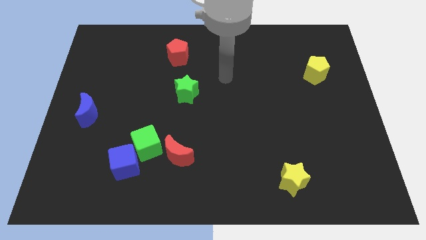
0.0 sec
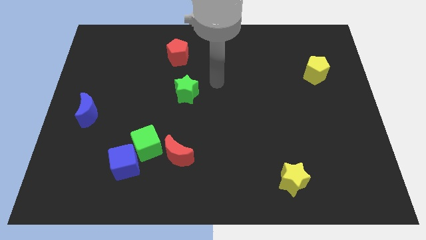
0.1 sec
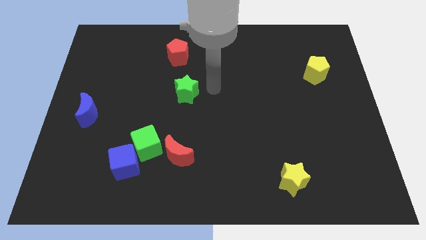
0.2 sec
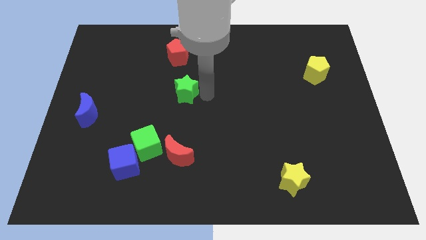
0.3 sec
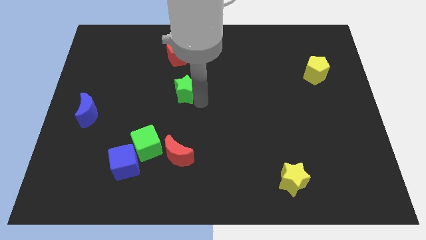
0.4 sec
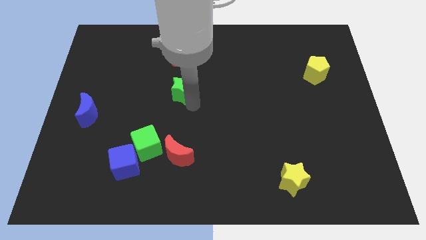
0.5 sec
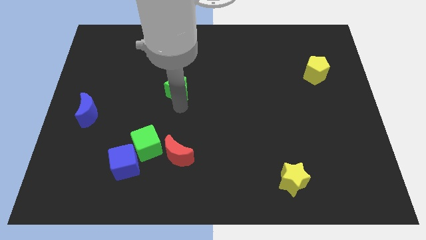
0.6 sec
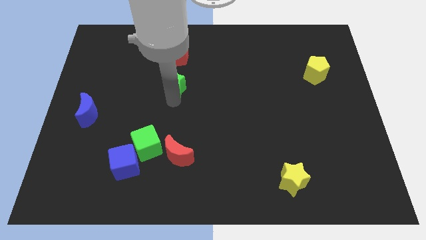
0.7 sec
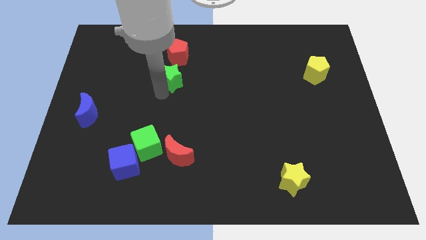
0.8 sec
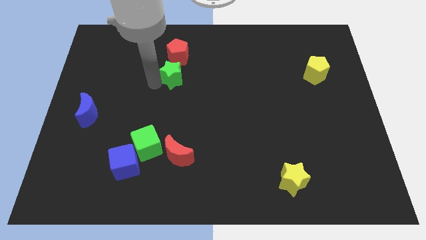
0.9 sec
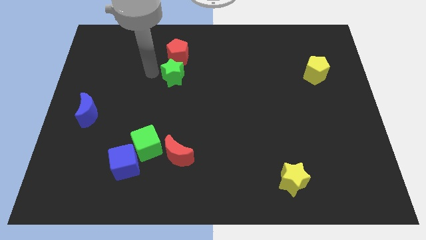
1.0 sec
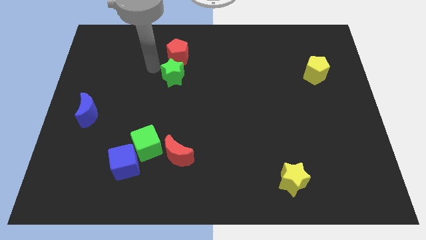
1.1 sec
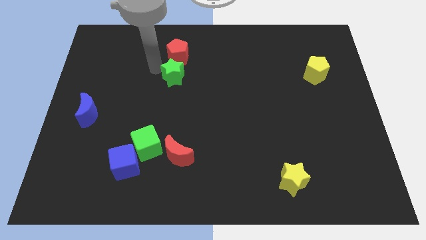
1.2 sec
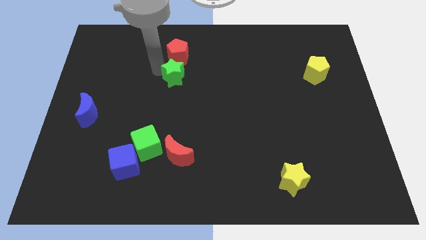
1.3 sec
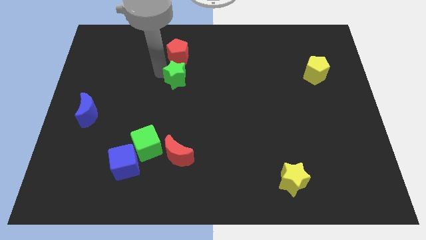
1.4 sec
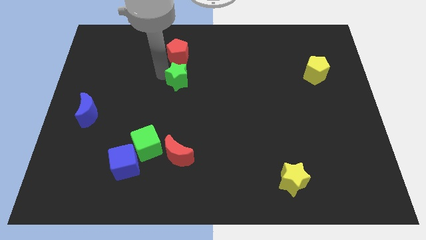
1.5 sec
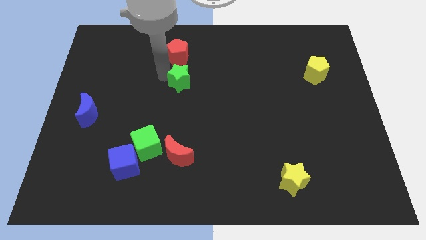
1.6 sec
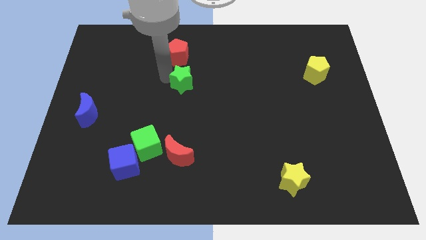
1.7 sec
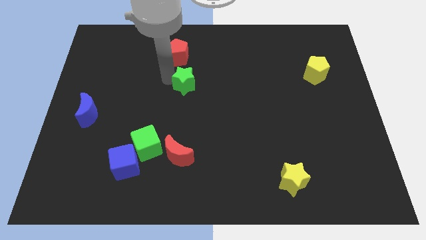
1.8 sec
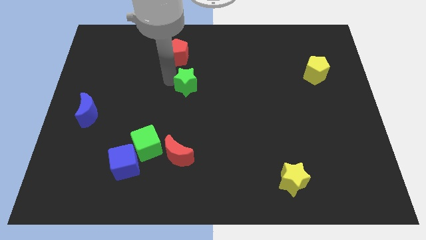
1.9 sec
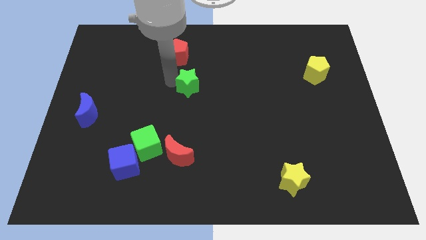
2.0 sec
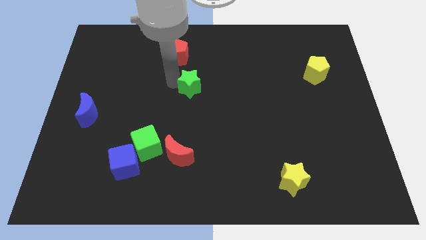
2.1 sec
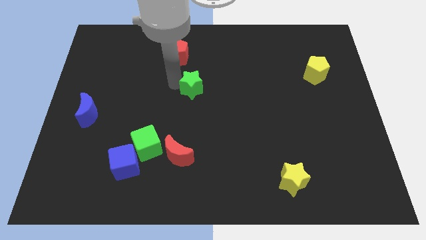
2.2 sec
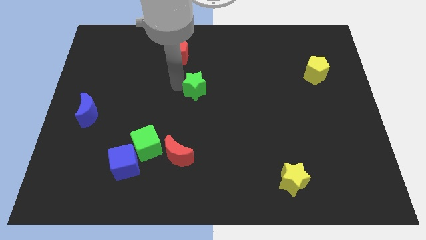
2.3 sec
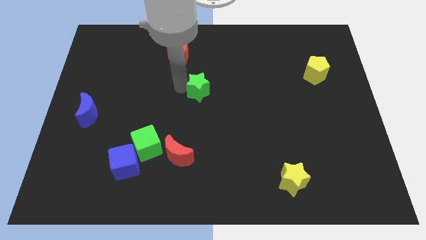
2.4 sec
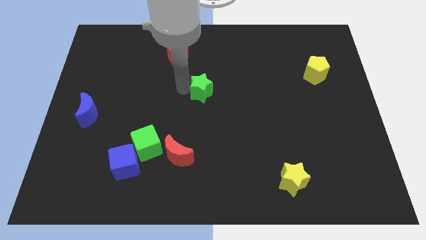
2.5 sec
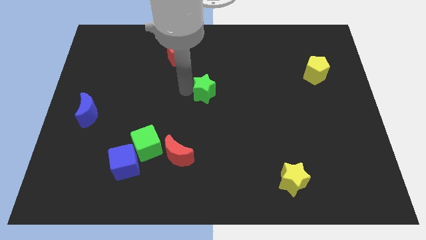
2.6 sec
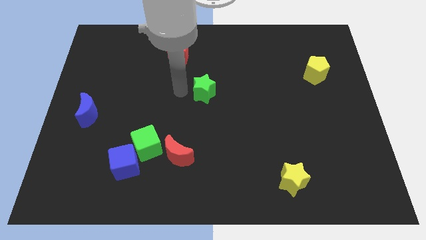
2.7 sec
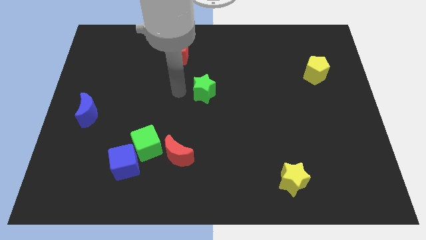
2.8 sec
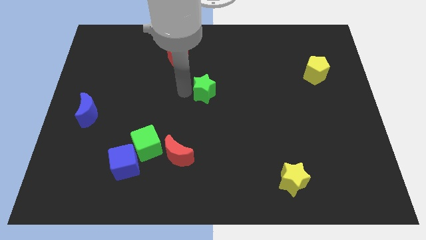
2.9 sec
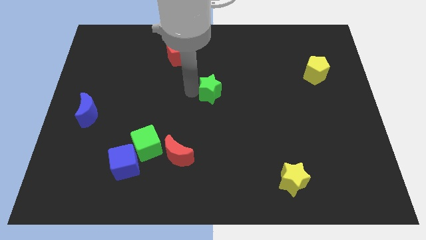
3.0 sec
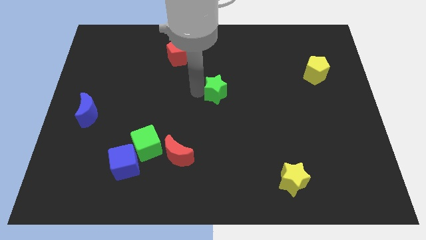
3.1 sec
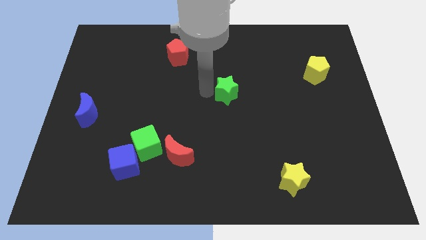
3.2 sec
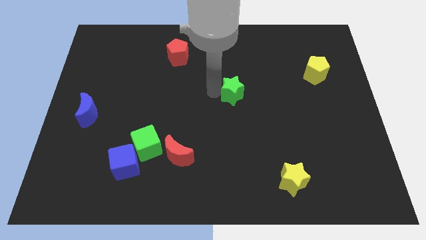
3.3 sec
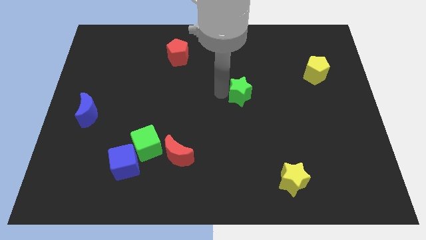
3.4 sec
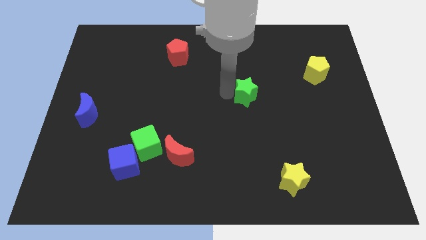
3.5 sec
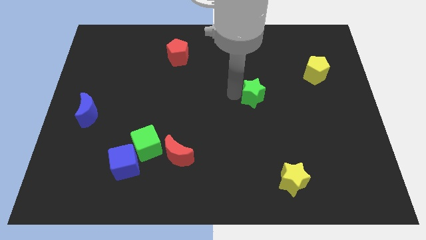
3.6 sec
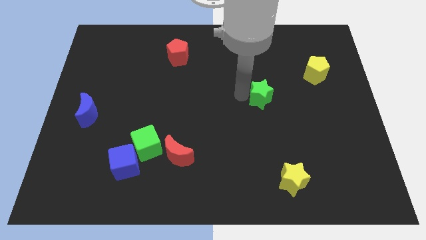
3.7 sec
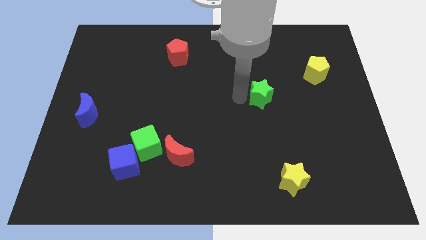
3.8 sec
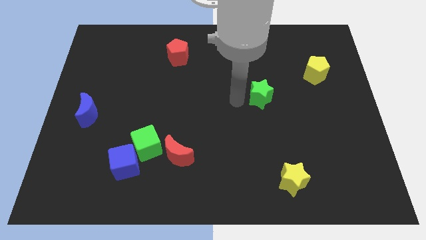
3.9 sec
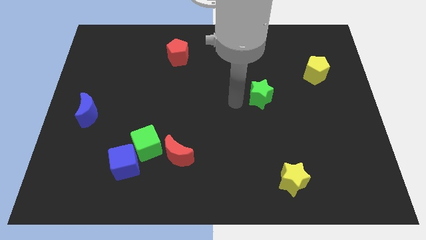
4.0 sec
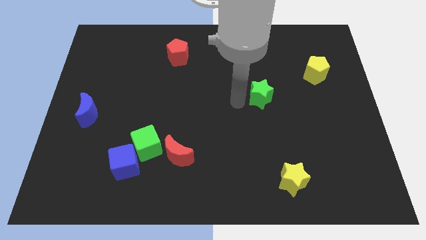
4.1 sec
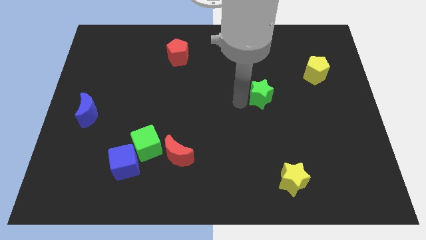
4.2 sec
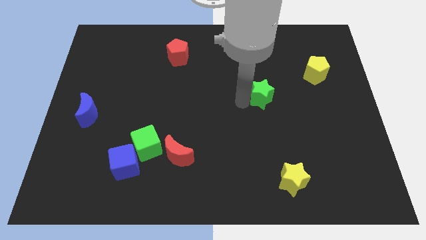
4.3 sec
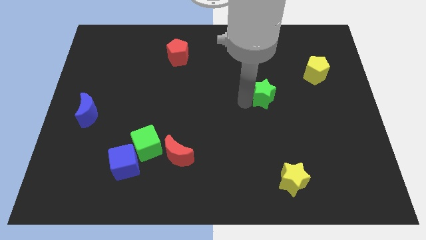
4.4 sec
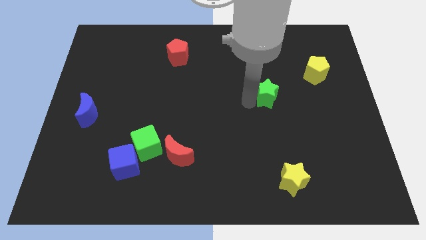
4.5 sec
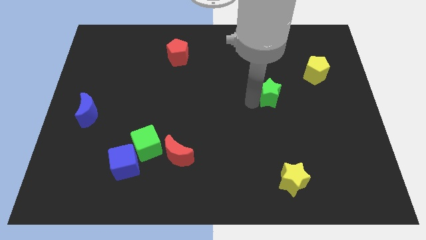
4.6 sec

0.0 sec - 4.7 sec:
move the green star to the right

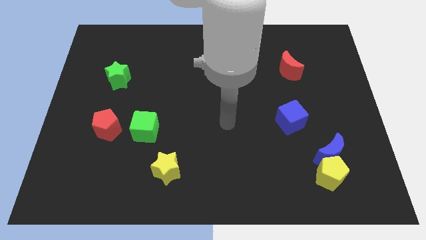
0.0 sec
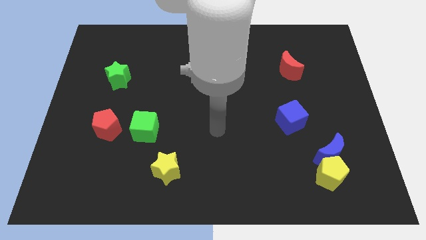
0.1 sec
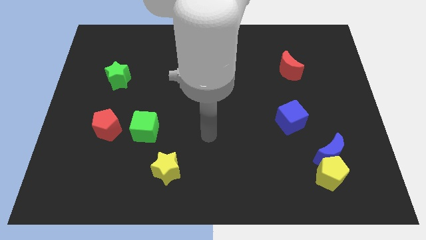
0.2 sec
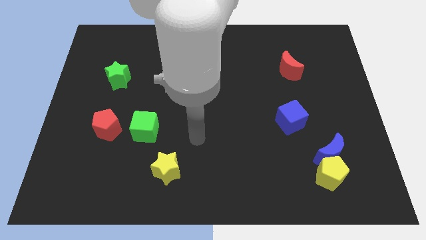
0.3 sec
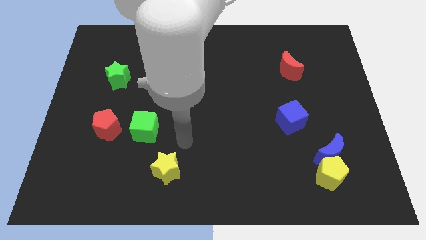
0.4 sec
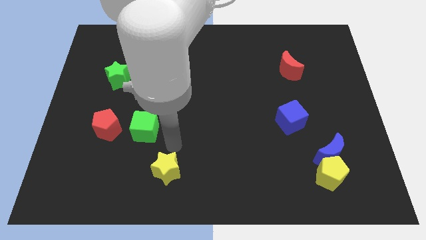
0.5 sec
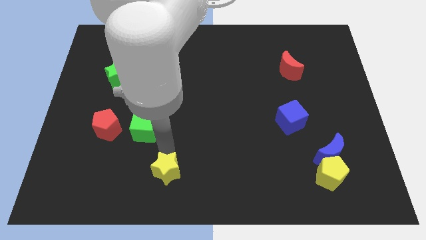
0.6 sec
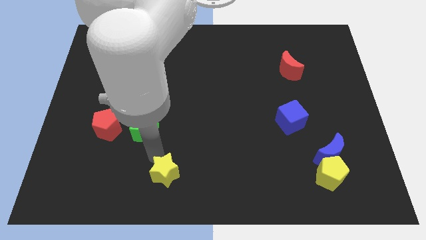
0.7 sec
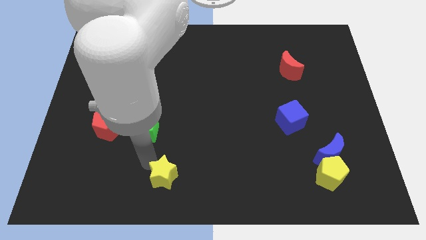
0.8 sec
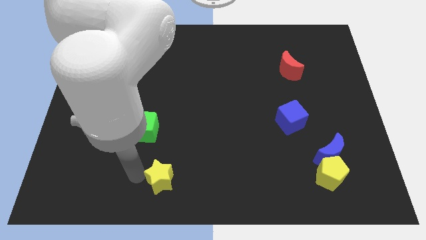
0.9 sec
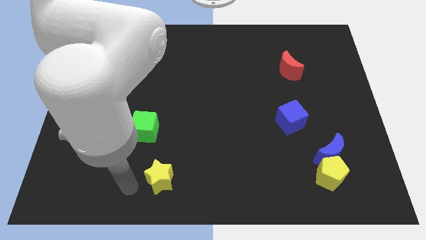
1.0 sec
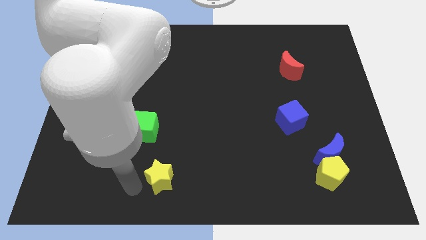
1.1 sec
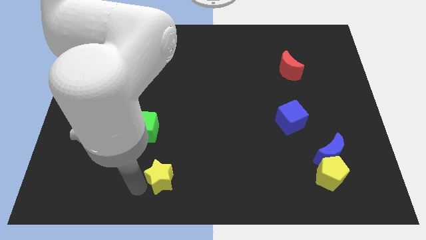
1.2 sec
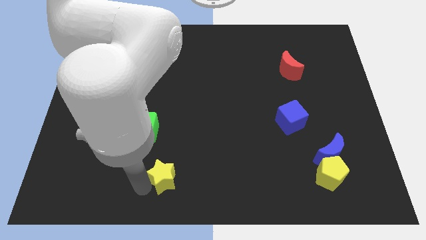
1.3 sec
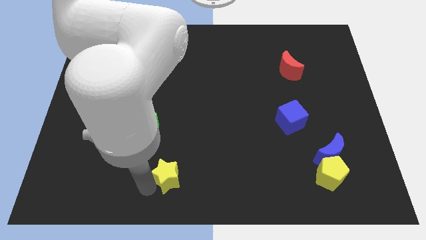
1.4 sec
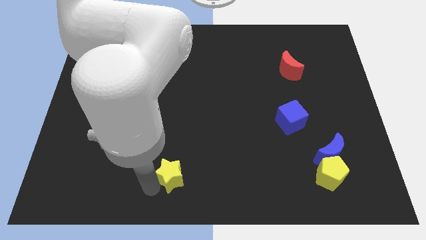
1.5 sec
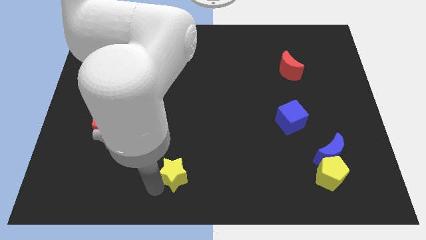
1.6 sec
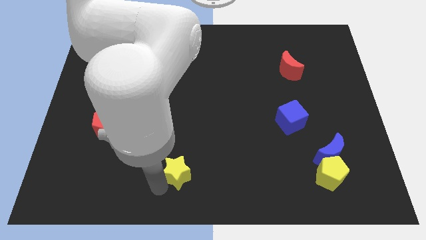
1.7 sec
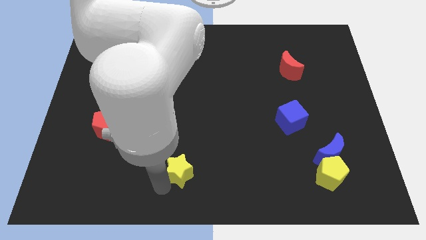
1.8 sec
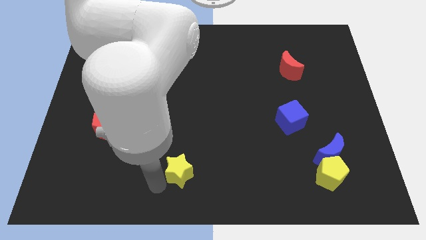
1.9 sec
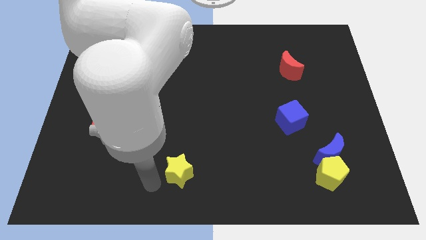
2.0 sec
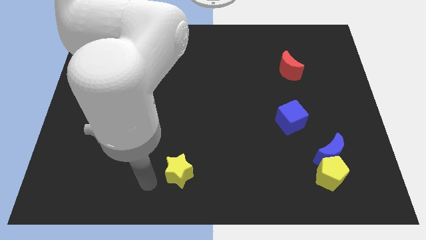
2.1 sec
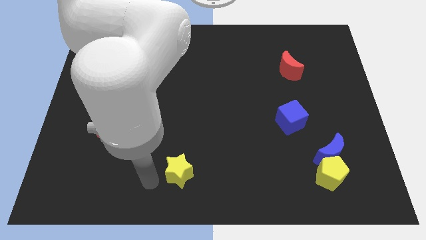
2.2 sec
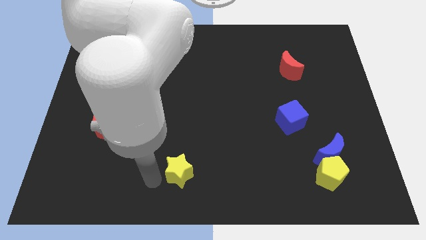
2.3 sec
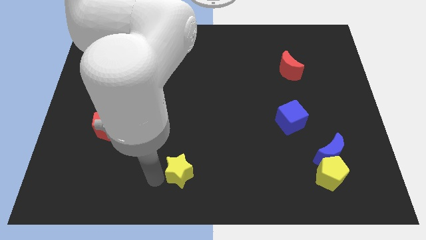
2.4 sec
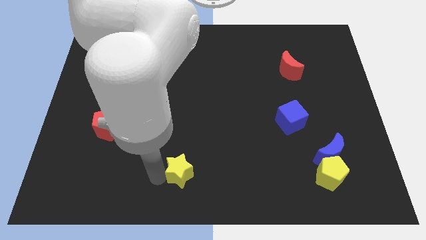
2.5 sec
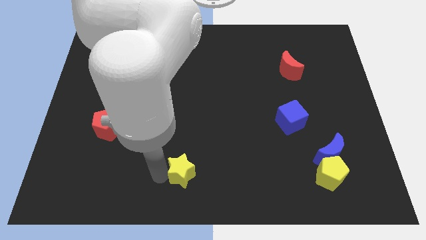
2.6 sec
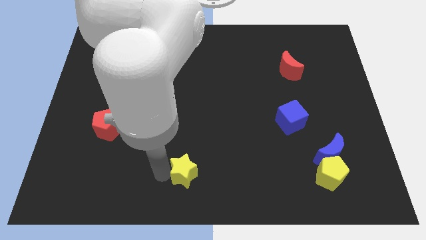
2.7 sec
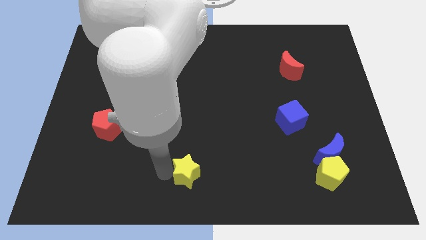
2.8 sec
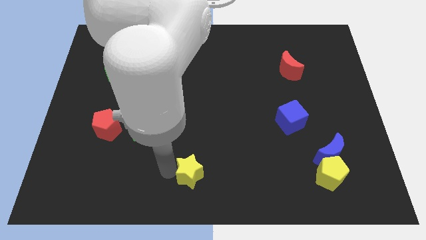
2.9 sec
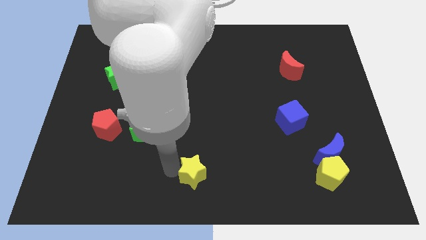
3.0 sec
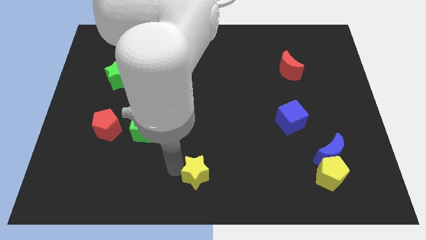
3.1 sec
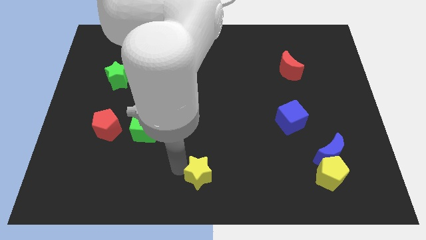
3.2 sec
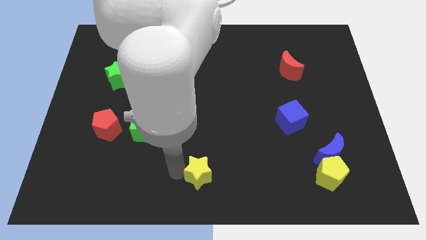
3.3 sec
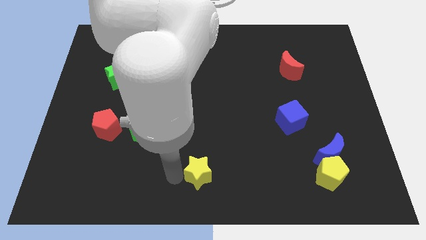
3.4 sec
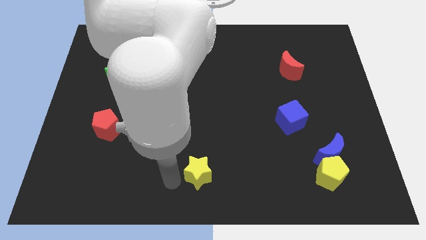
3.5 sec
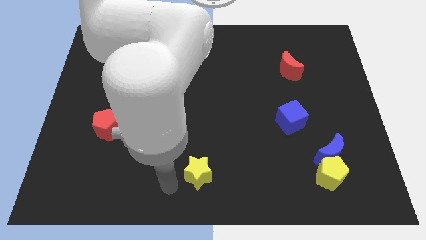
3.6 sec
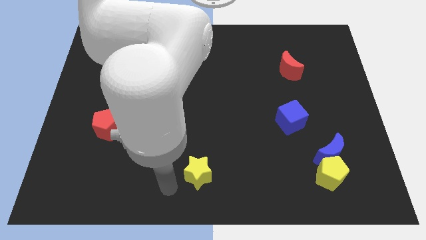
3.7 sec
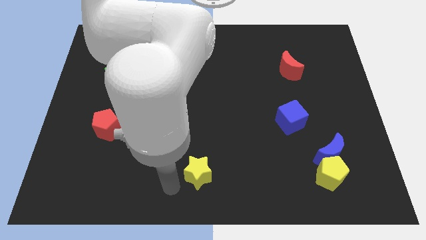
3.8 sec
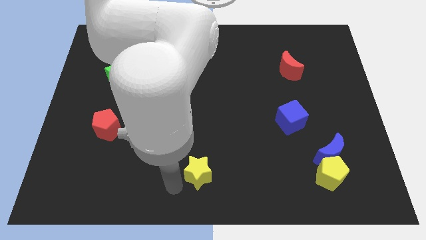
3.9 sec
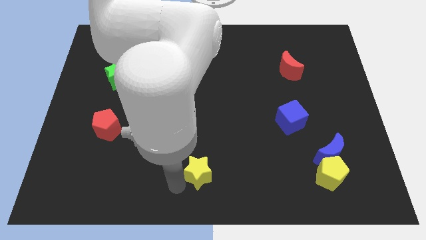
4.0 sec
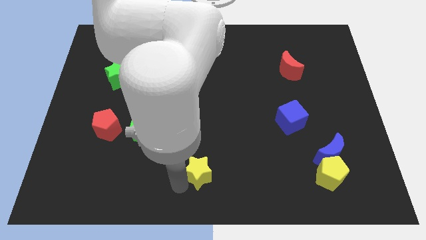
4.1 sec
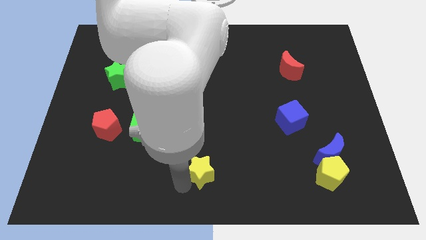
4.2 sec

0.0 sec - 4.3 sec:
slide the yellow star a little bit right
